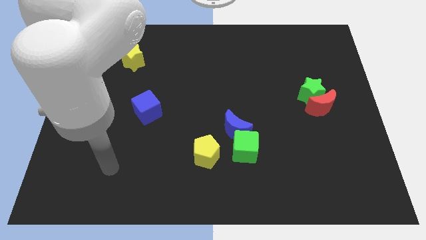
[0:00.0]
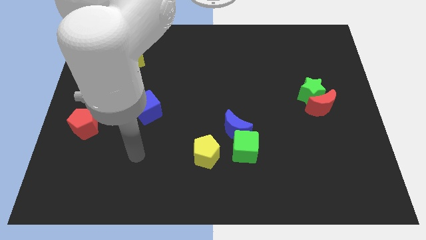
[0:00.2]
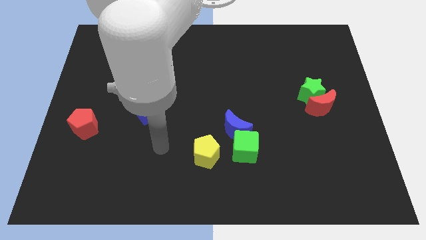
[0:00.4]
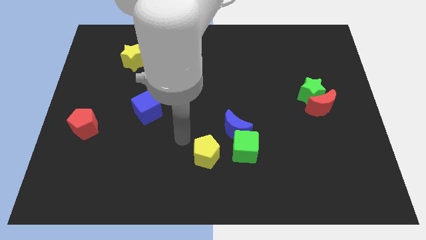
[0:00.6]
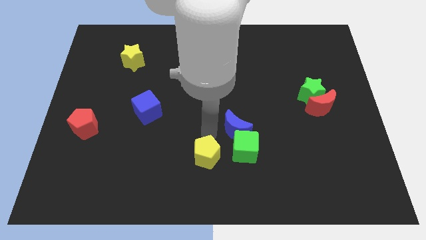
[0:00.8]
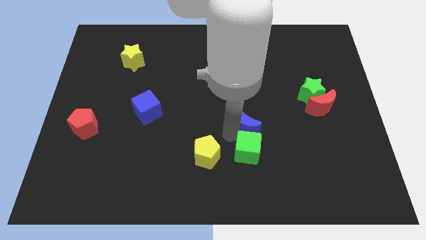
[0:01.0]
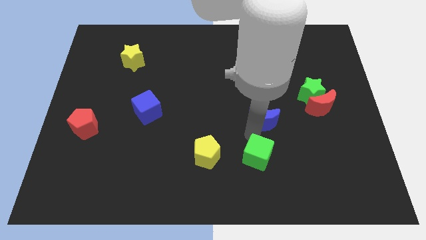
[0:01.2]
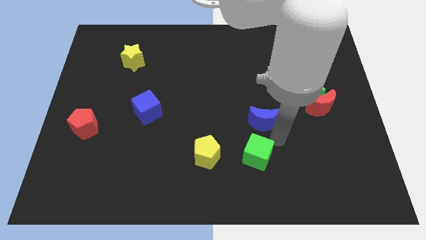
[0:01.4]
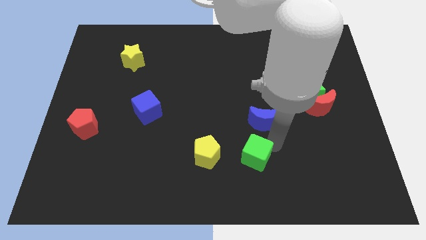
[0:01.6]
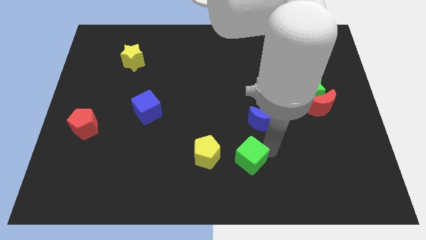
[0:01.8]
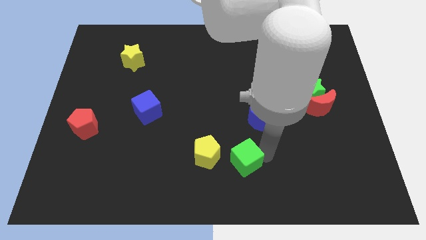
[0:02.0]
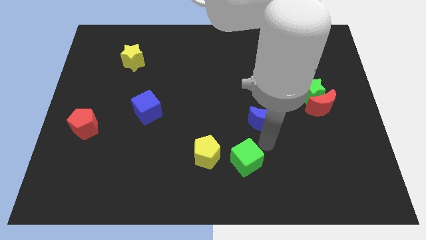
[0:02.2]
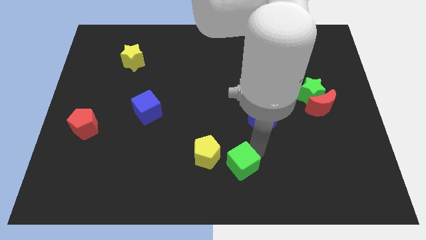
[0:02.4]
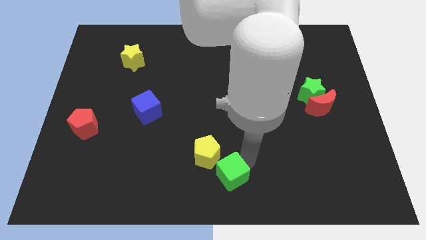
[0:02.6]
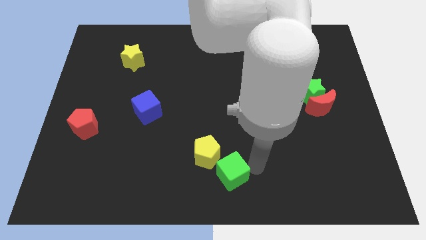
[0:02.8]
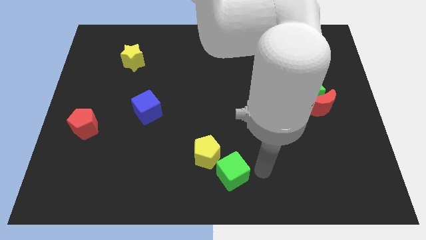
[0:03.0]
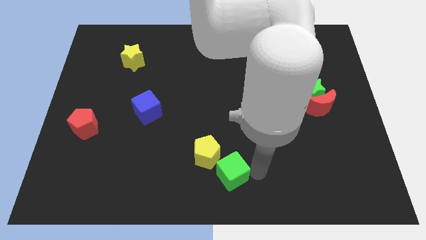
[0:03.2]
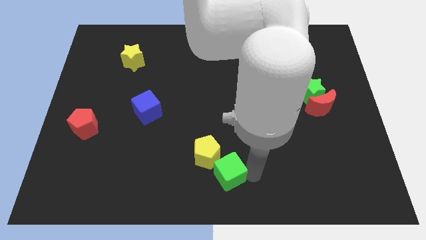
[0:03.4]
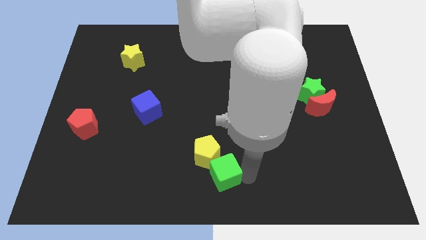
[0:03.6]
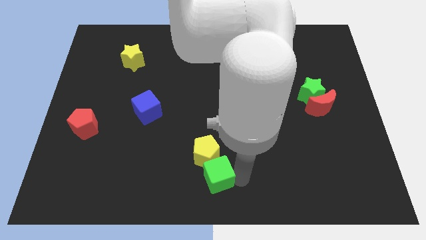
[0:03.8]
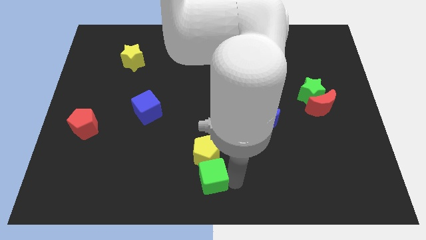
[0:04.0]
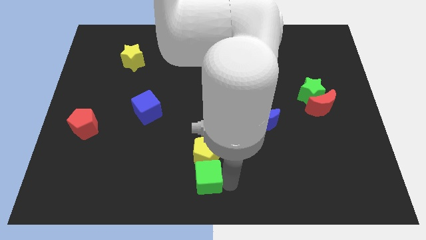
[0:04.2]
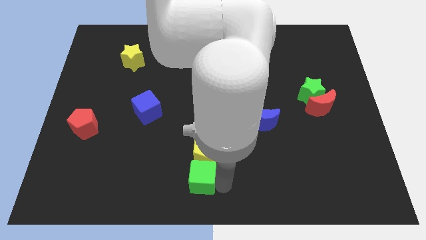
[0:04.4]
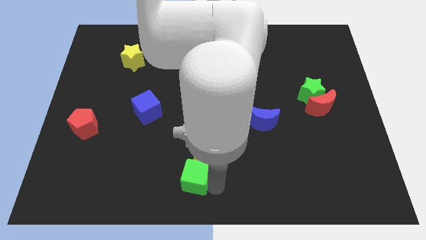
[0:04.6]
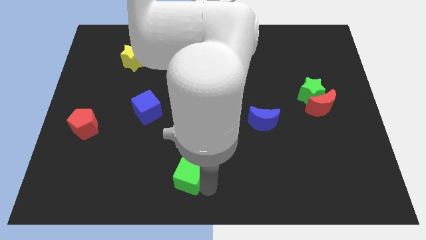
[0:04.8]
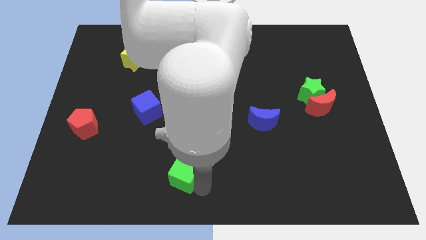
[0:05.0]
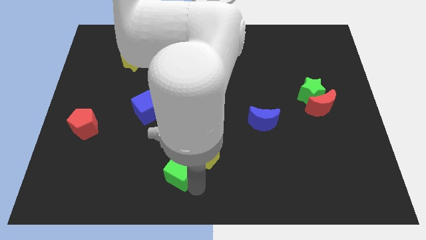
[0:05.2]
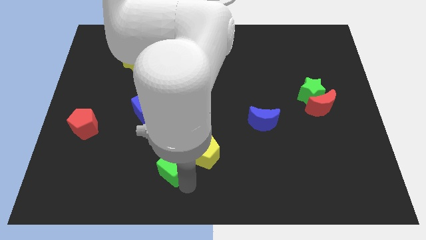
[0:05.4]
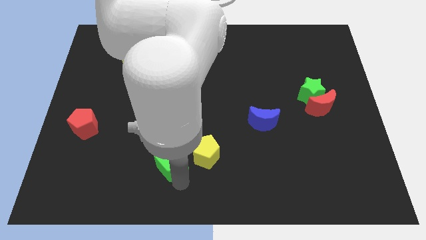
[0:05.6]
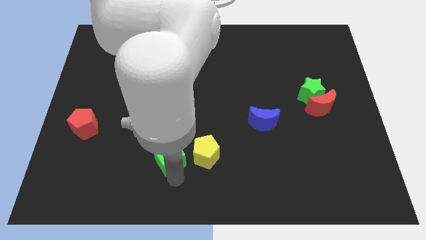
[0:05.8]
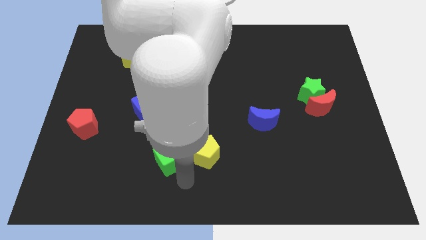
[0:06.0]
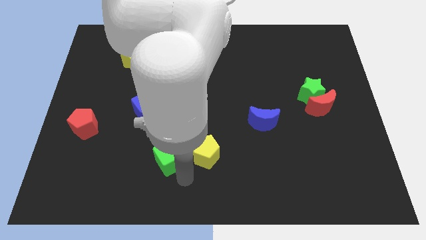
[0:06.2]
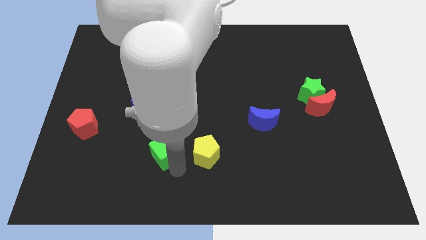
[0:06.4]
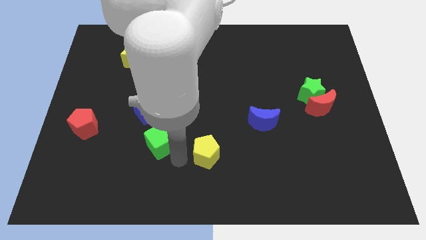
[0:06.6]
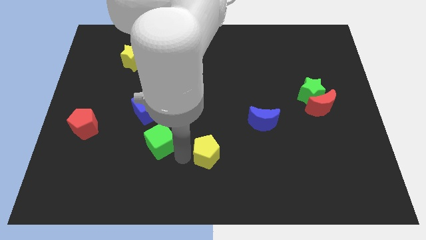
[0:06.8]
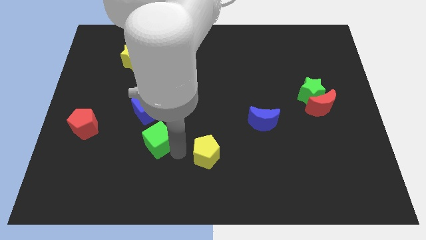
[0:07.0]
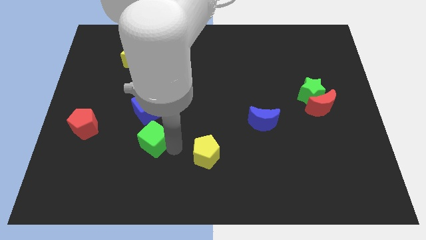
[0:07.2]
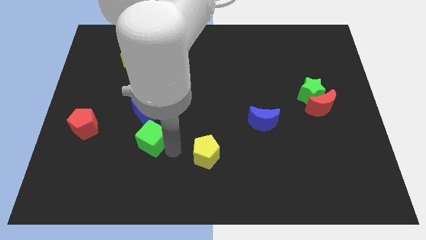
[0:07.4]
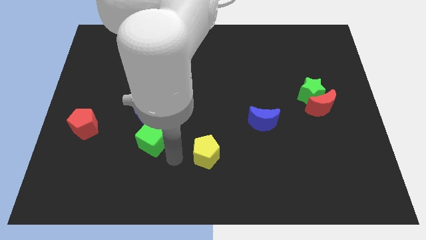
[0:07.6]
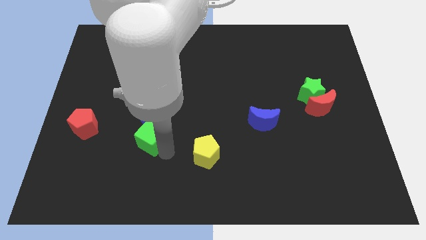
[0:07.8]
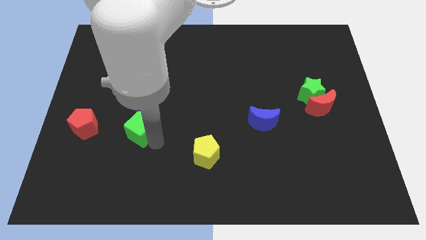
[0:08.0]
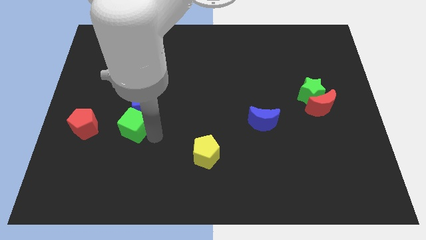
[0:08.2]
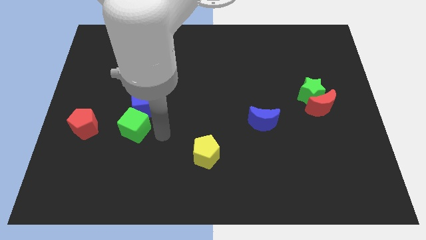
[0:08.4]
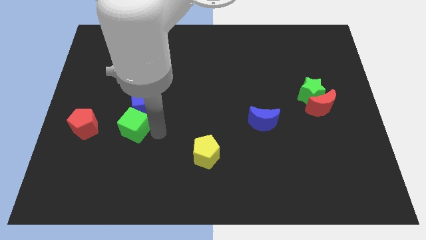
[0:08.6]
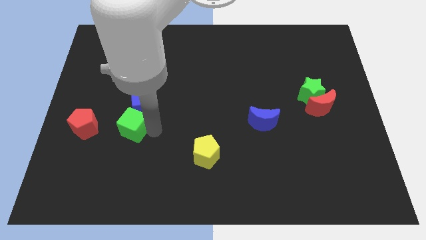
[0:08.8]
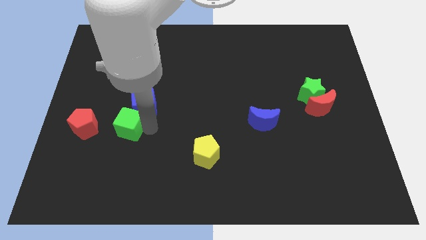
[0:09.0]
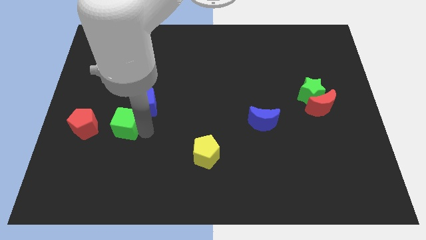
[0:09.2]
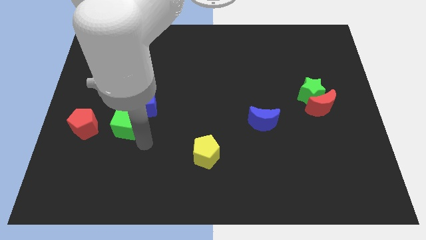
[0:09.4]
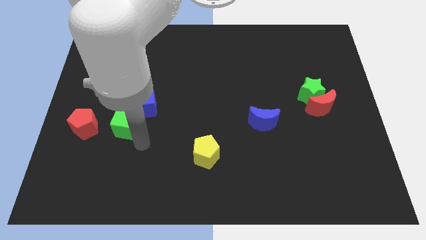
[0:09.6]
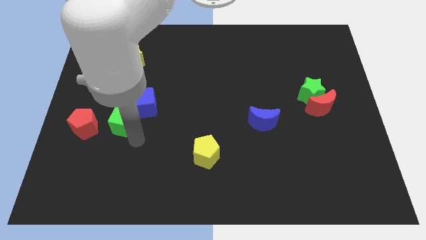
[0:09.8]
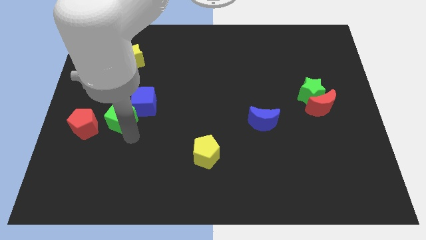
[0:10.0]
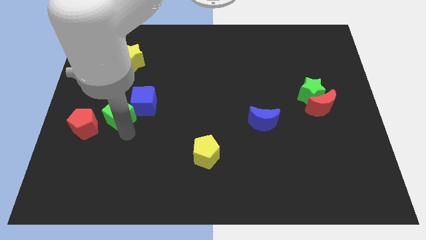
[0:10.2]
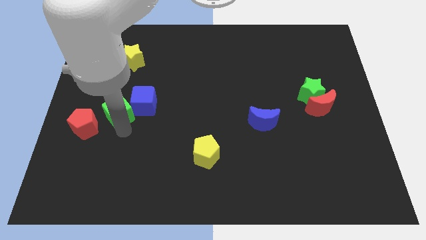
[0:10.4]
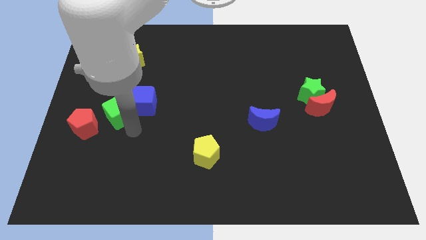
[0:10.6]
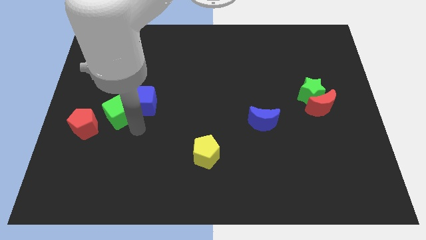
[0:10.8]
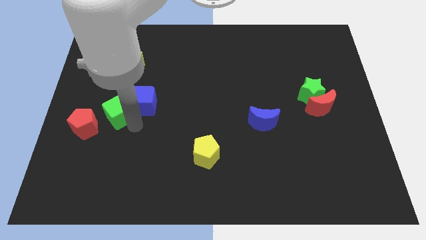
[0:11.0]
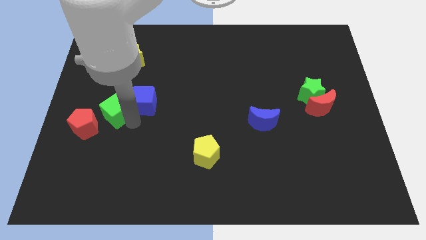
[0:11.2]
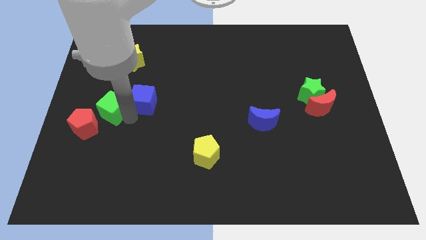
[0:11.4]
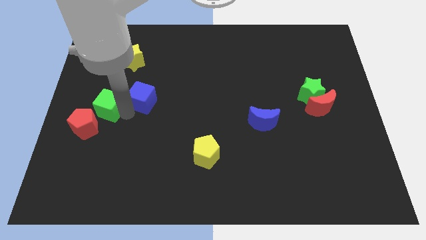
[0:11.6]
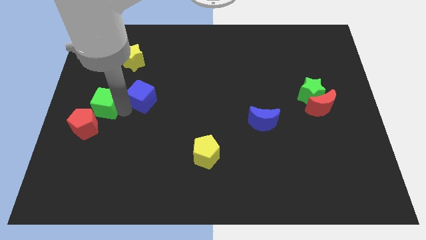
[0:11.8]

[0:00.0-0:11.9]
push the green cube to the left side

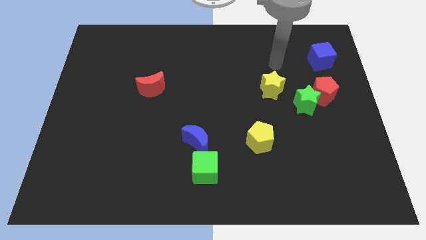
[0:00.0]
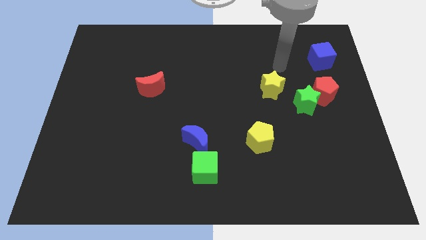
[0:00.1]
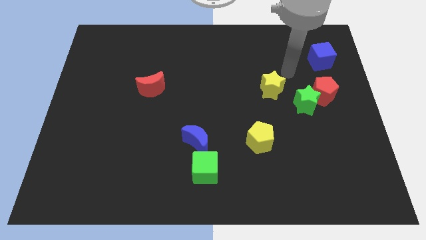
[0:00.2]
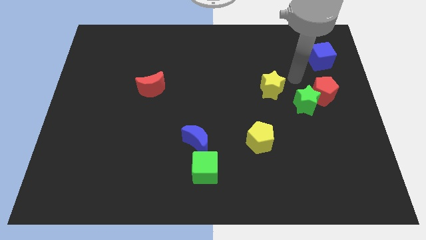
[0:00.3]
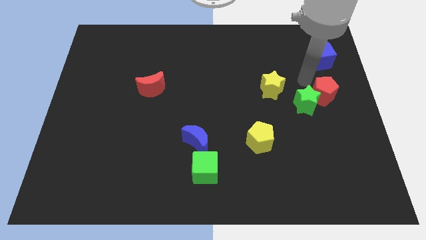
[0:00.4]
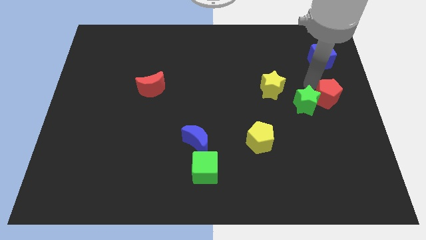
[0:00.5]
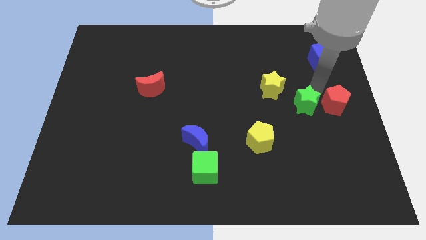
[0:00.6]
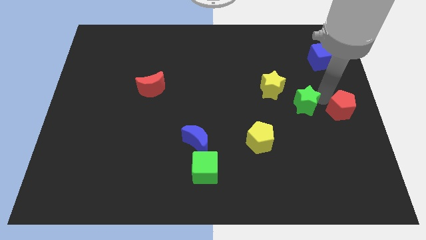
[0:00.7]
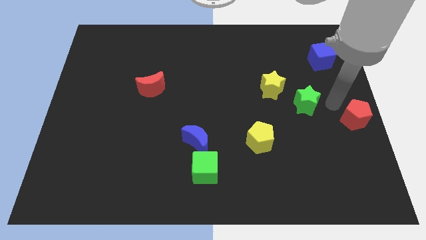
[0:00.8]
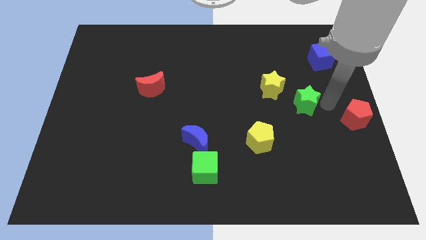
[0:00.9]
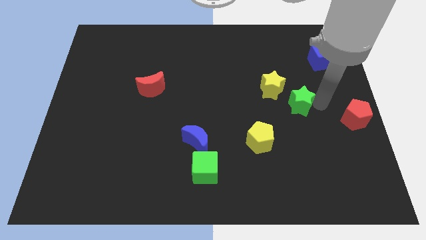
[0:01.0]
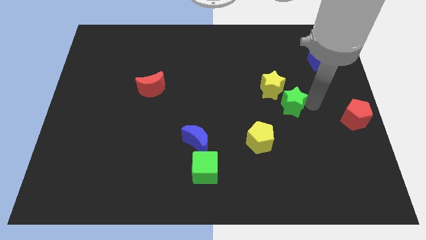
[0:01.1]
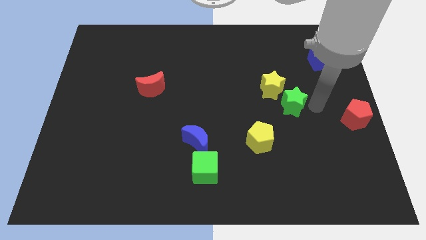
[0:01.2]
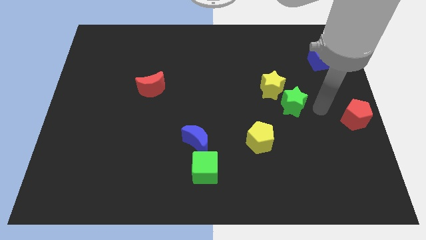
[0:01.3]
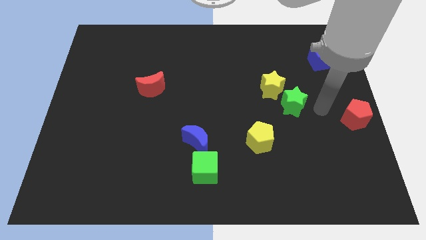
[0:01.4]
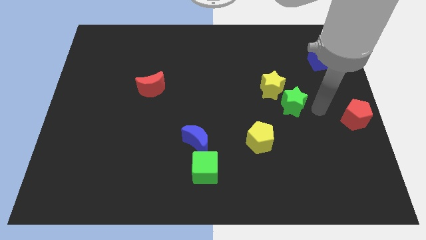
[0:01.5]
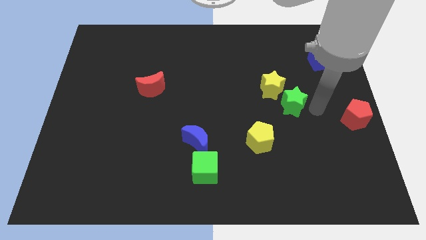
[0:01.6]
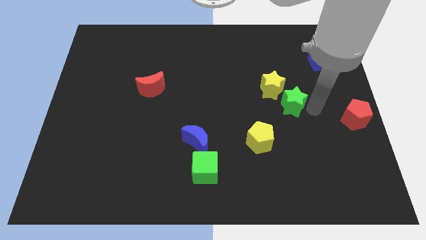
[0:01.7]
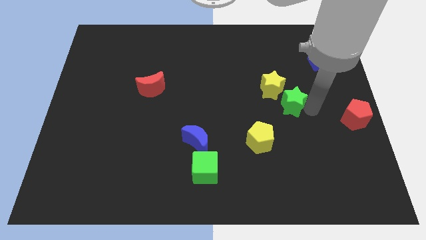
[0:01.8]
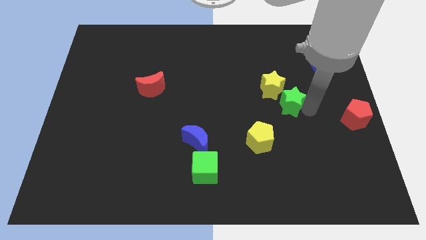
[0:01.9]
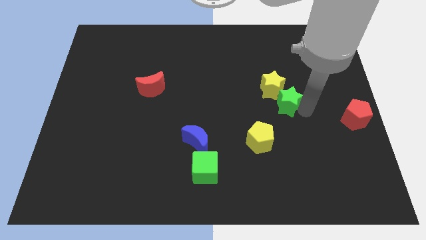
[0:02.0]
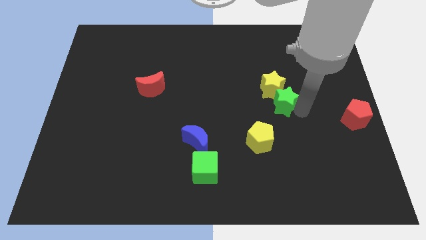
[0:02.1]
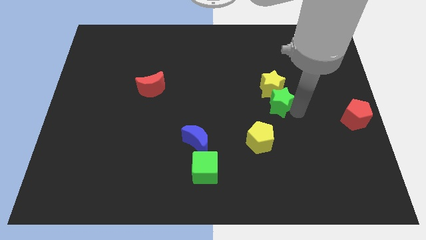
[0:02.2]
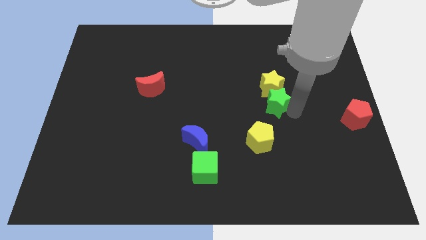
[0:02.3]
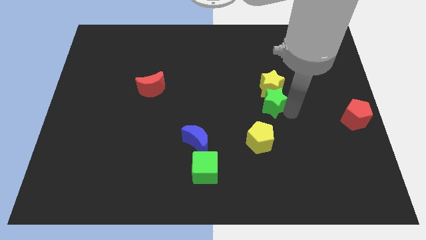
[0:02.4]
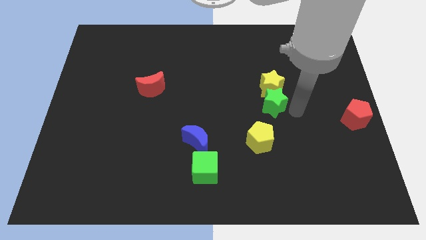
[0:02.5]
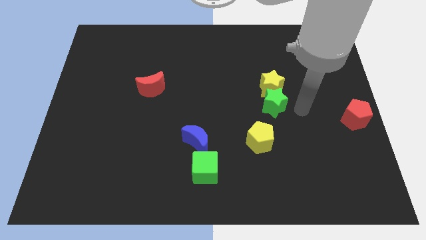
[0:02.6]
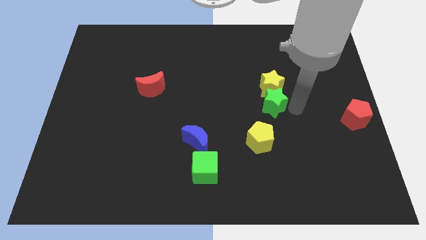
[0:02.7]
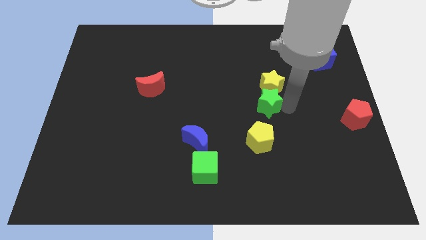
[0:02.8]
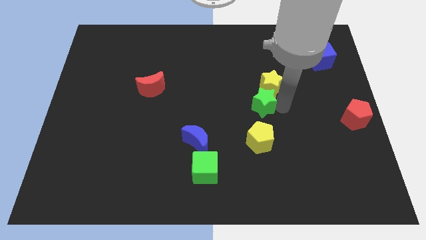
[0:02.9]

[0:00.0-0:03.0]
slide the green star to the middle
